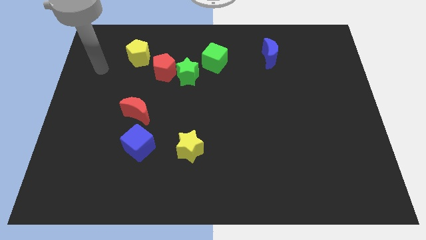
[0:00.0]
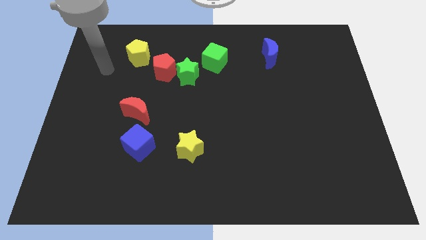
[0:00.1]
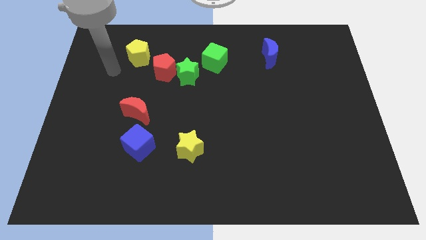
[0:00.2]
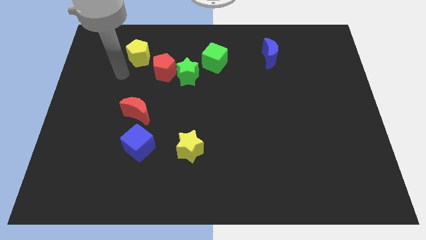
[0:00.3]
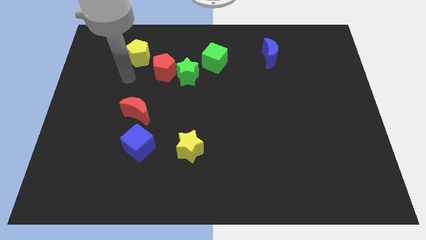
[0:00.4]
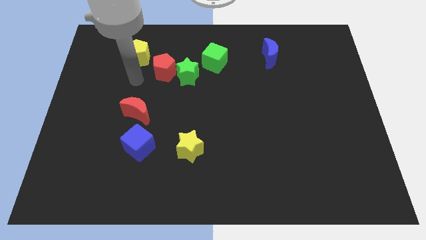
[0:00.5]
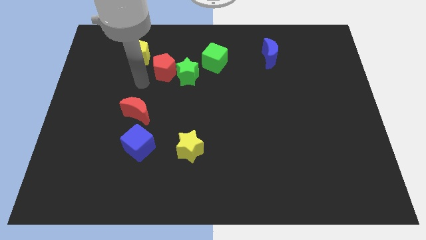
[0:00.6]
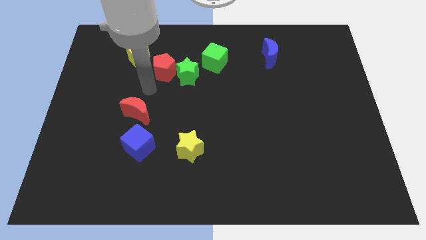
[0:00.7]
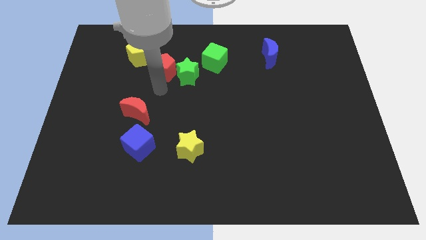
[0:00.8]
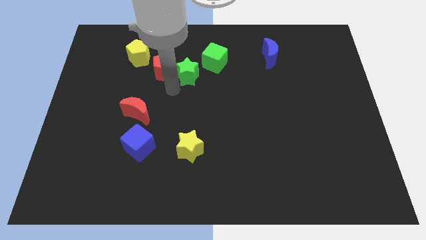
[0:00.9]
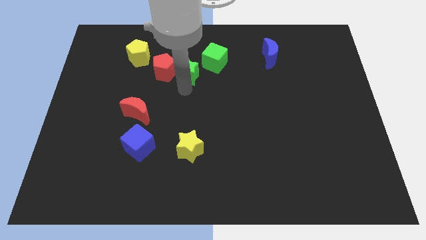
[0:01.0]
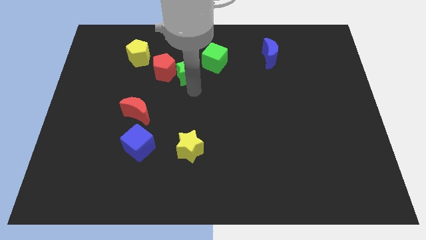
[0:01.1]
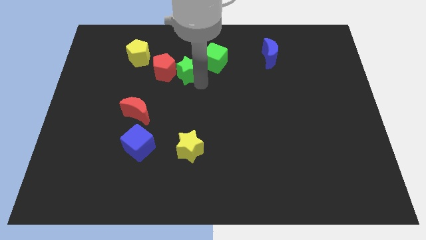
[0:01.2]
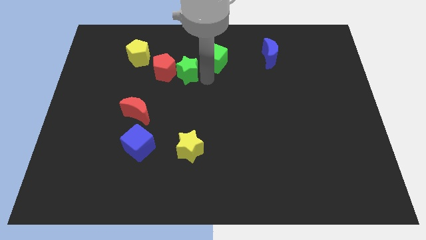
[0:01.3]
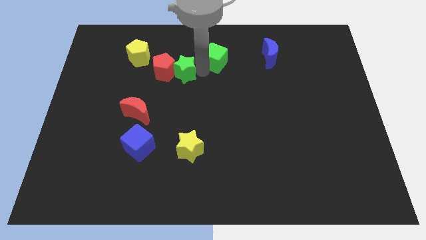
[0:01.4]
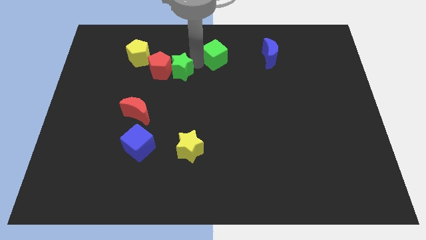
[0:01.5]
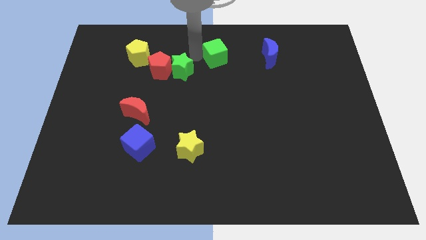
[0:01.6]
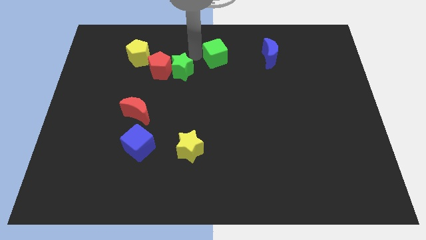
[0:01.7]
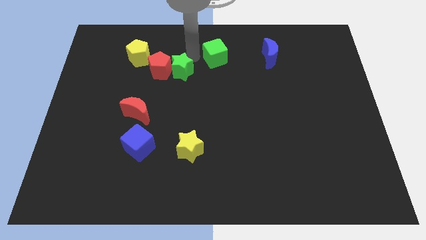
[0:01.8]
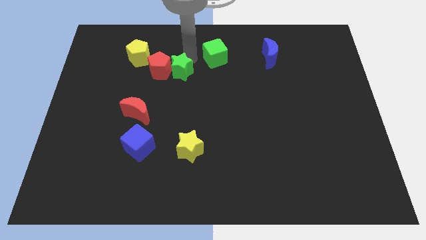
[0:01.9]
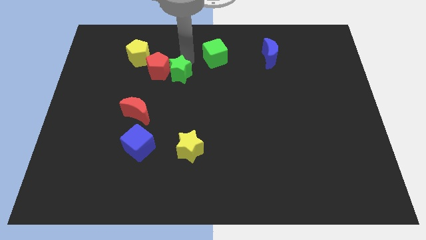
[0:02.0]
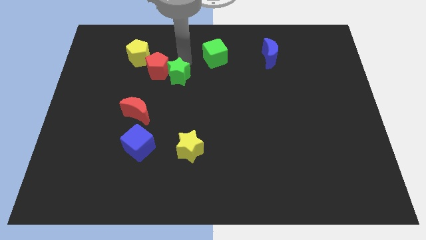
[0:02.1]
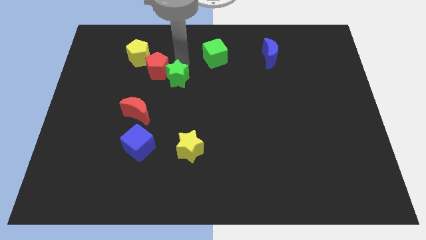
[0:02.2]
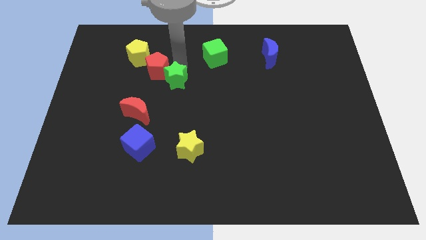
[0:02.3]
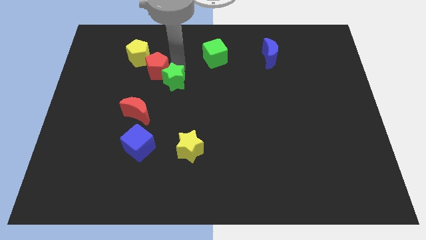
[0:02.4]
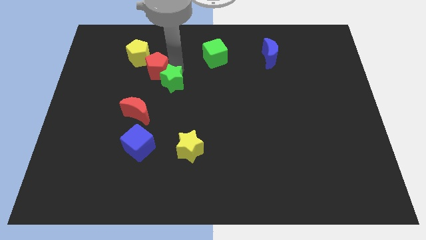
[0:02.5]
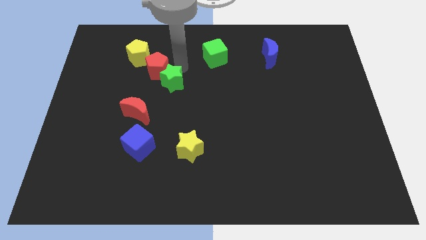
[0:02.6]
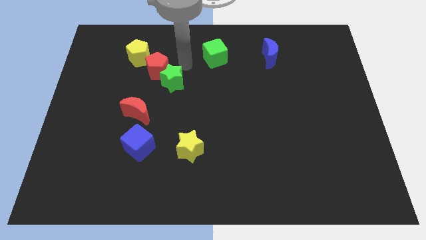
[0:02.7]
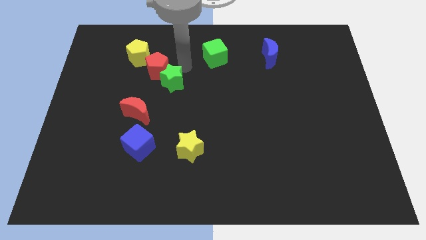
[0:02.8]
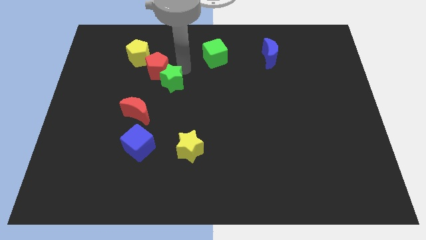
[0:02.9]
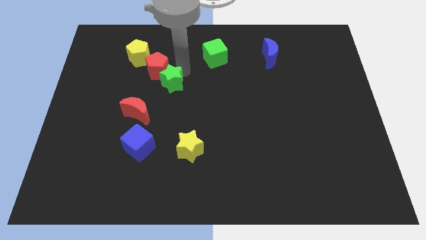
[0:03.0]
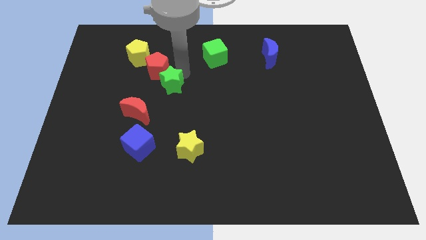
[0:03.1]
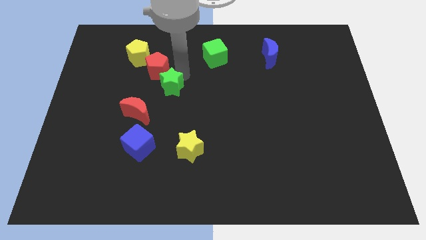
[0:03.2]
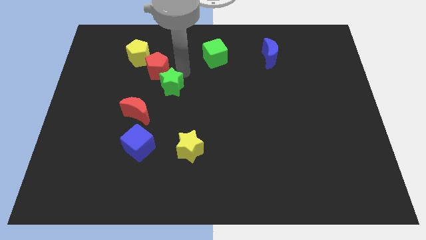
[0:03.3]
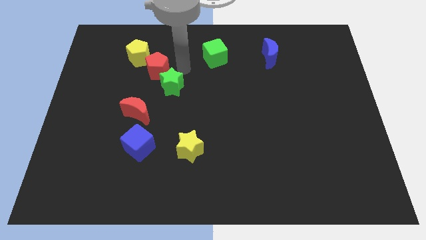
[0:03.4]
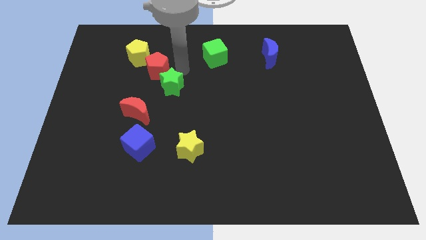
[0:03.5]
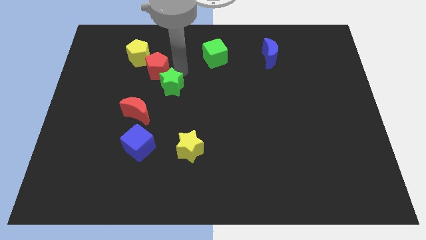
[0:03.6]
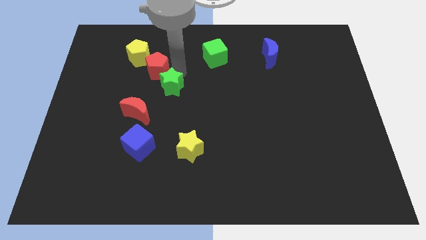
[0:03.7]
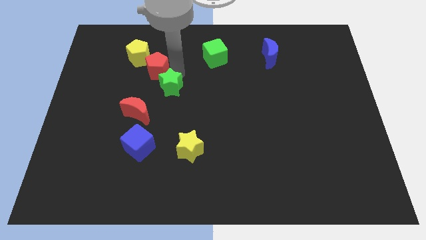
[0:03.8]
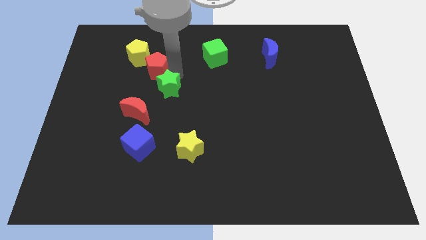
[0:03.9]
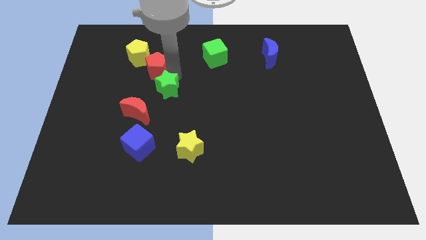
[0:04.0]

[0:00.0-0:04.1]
move the green star away from the red pentagon and green cube

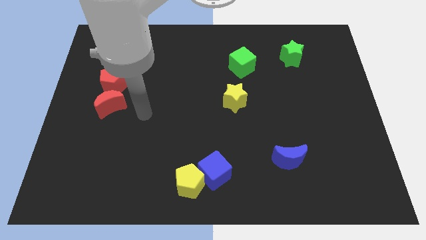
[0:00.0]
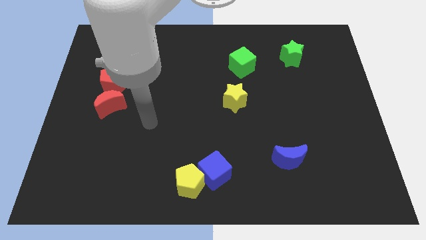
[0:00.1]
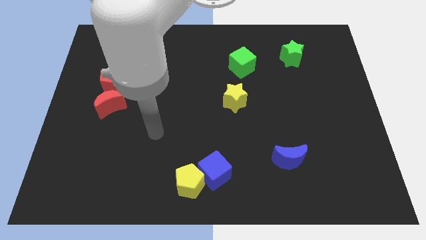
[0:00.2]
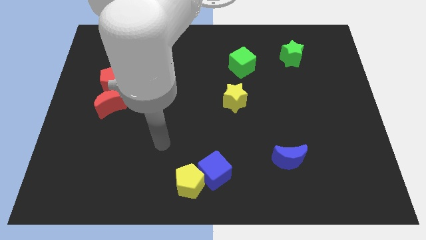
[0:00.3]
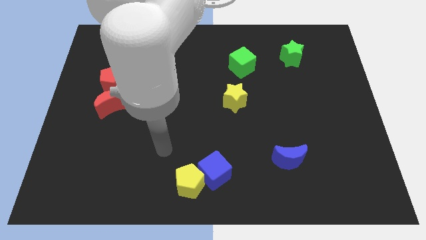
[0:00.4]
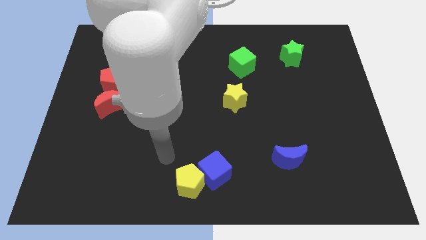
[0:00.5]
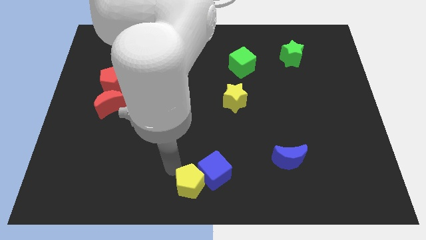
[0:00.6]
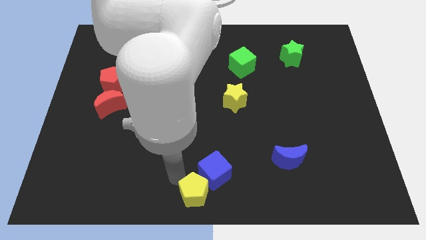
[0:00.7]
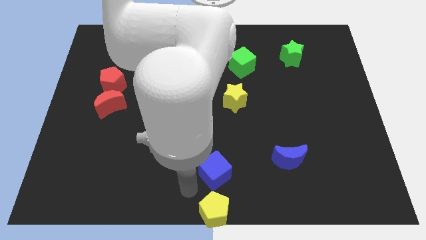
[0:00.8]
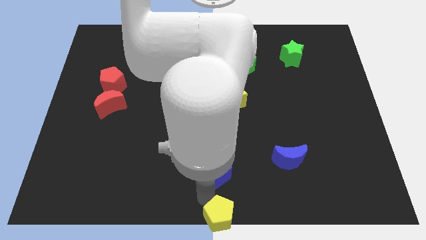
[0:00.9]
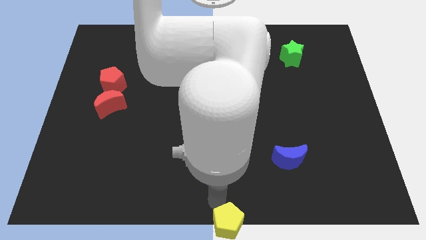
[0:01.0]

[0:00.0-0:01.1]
move the blue cube away from the yellow pentagon

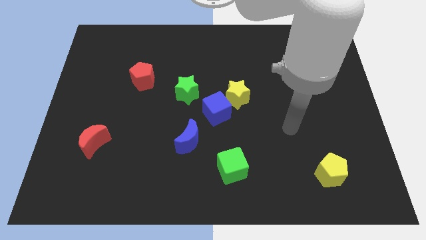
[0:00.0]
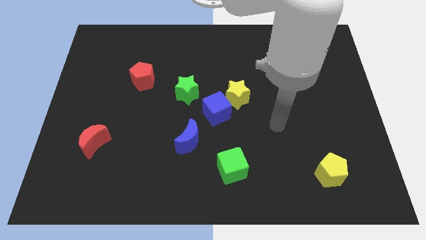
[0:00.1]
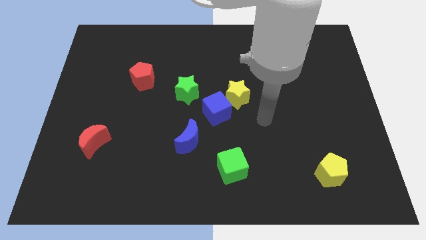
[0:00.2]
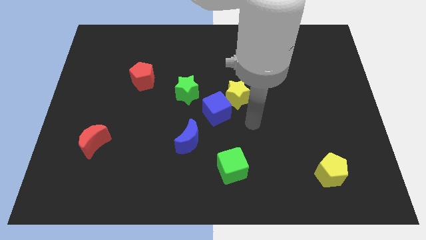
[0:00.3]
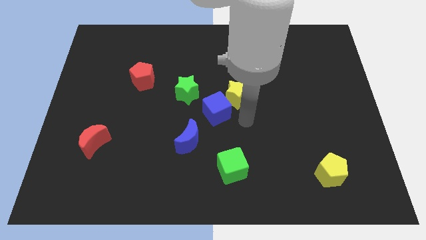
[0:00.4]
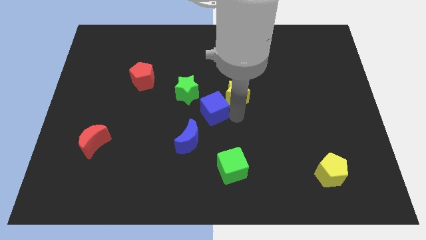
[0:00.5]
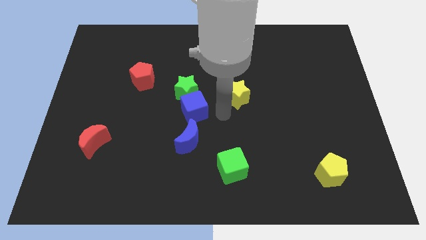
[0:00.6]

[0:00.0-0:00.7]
move the yellow star away from the blue cube

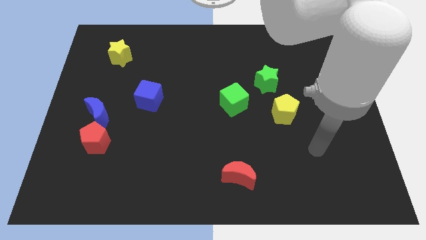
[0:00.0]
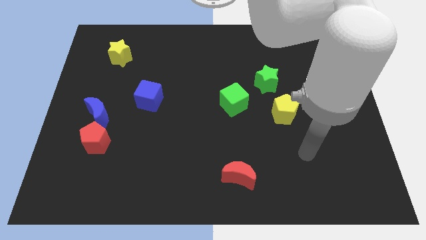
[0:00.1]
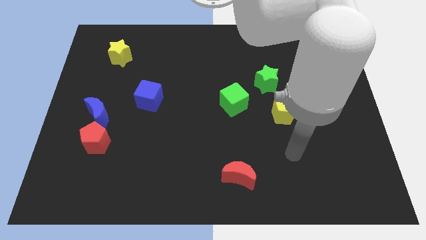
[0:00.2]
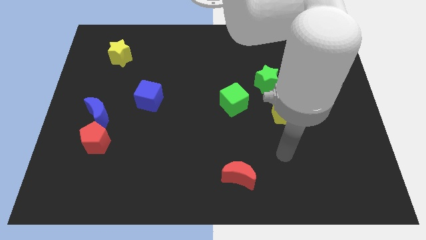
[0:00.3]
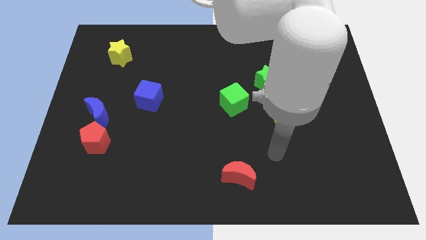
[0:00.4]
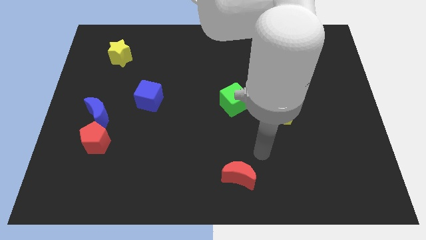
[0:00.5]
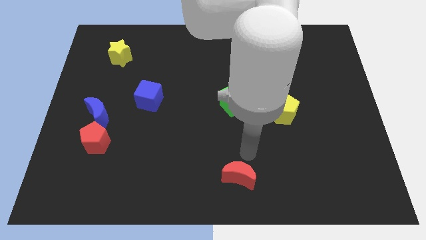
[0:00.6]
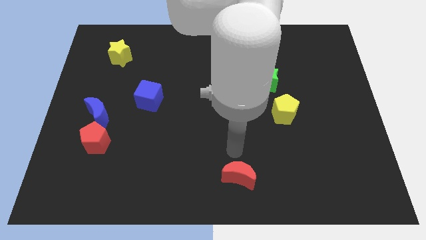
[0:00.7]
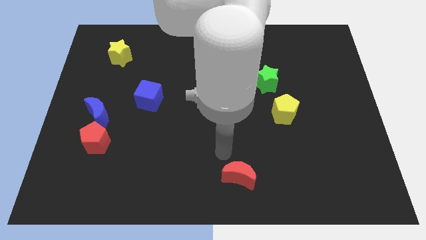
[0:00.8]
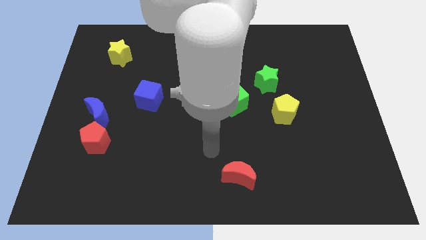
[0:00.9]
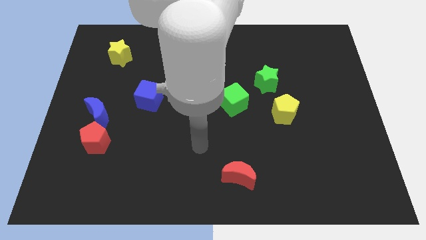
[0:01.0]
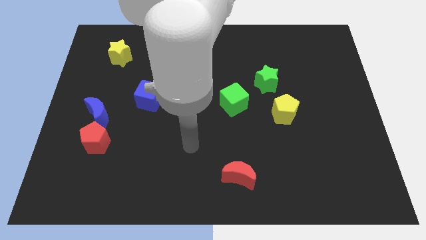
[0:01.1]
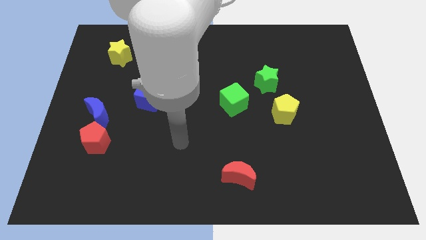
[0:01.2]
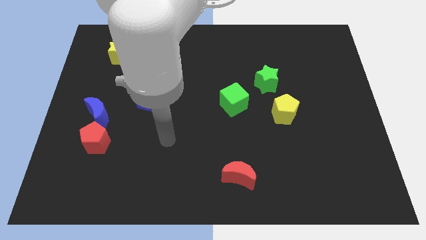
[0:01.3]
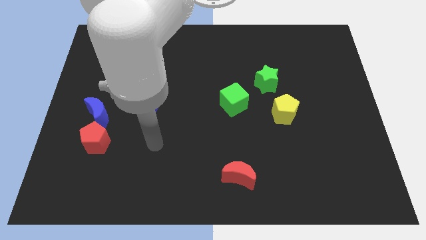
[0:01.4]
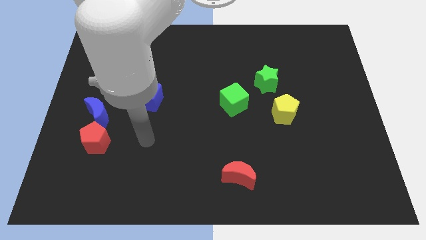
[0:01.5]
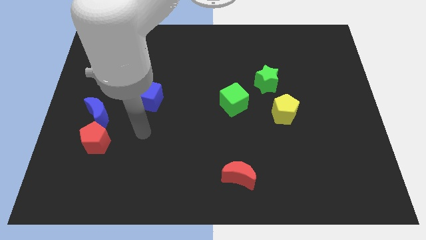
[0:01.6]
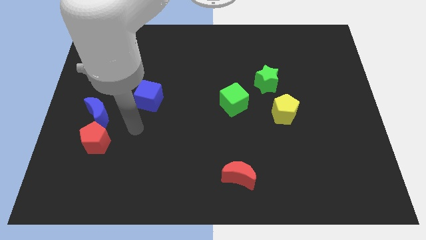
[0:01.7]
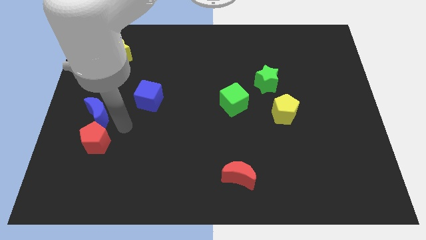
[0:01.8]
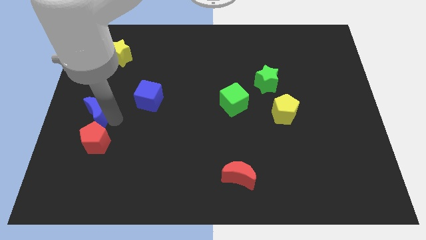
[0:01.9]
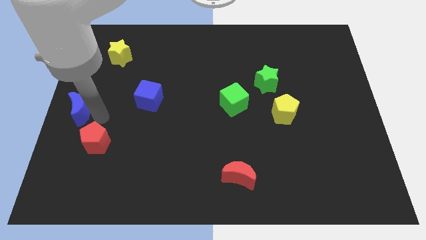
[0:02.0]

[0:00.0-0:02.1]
move the red pentagon away from the blue moon

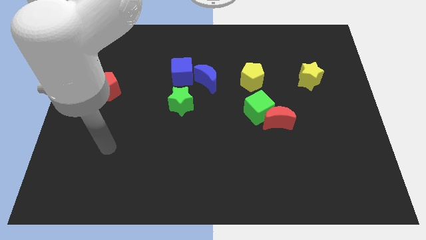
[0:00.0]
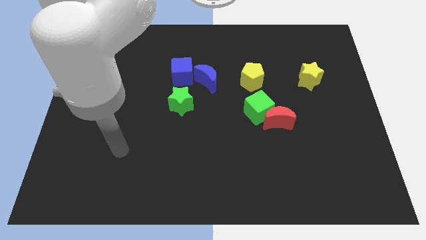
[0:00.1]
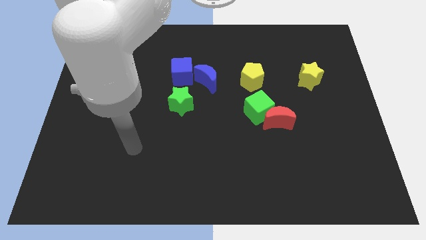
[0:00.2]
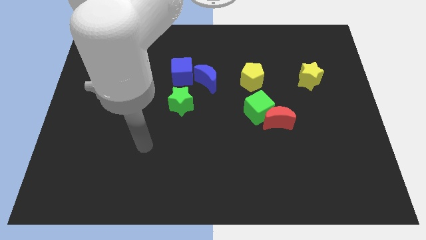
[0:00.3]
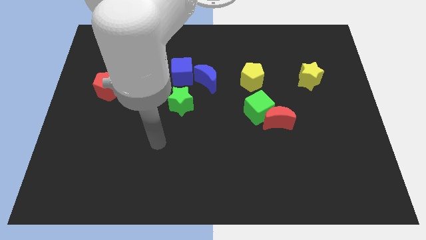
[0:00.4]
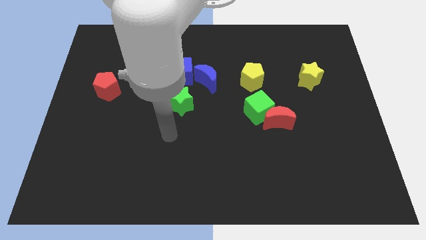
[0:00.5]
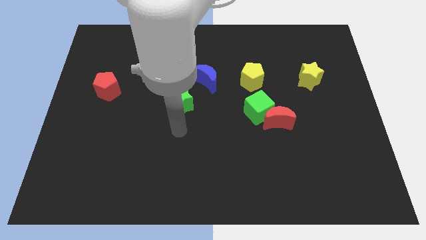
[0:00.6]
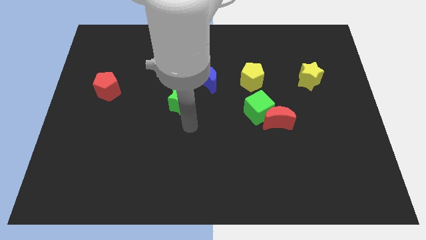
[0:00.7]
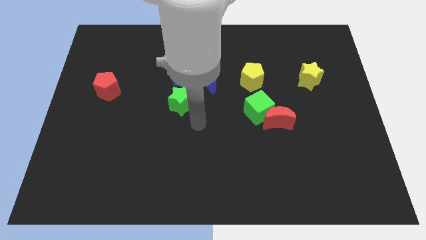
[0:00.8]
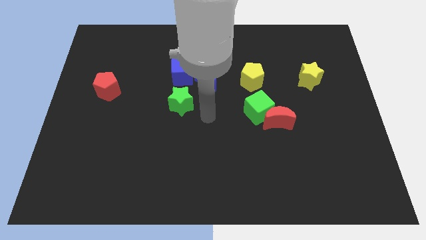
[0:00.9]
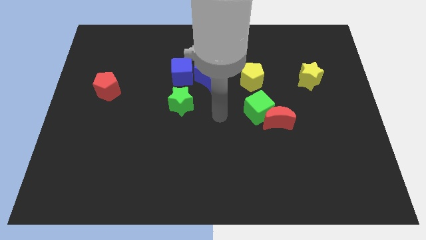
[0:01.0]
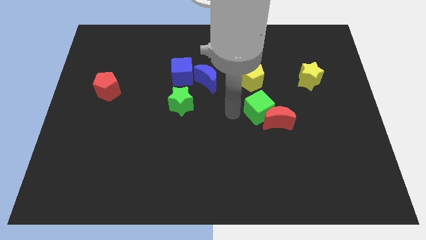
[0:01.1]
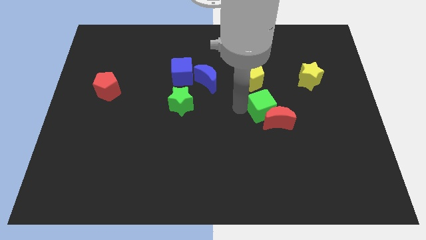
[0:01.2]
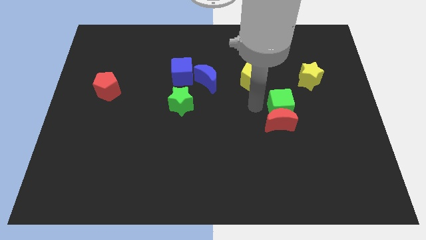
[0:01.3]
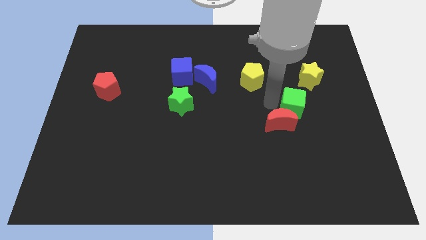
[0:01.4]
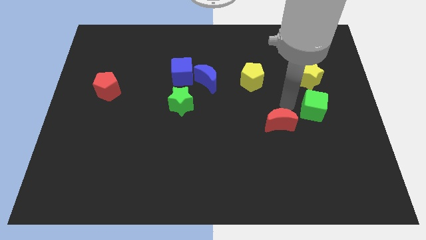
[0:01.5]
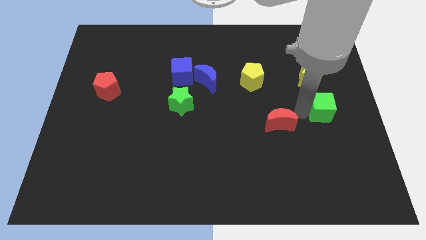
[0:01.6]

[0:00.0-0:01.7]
move the red moon away from the green cube
